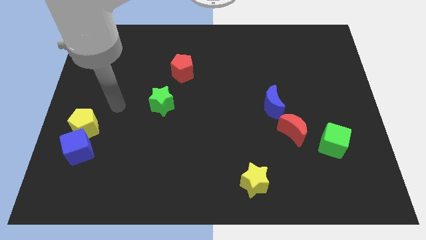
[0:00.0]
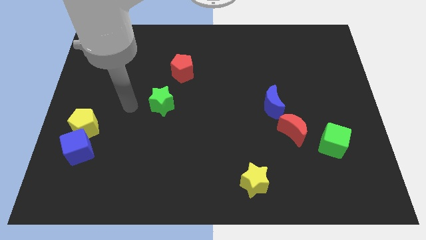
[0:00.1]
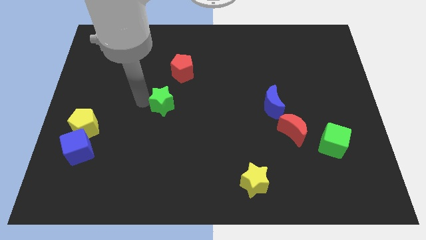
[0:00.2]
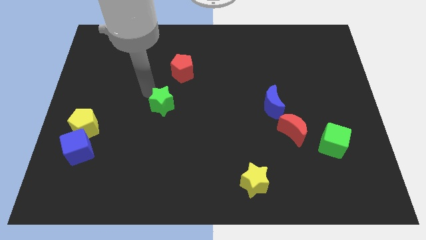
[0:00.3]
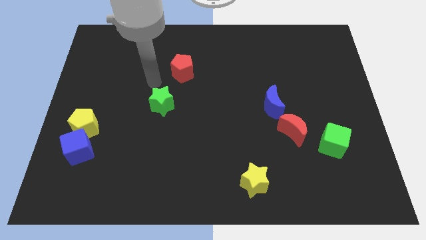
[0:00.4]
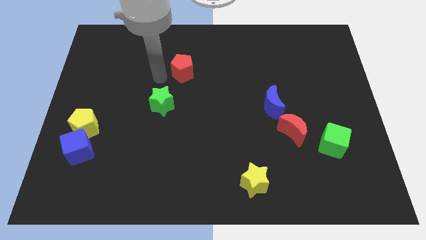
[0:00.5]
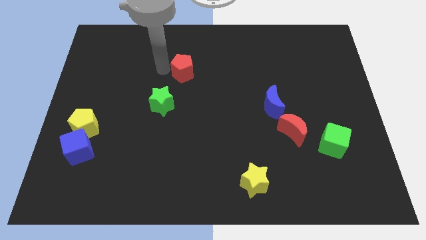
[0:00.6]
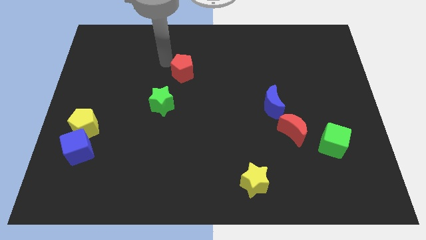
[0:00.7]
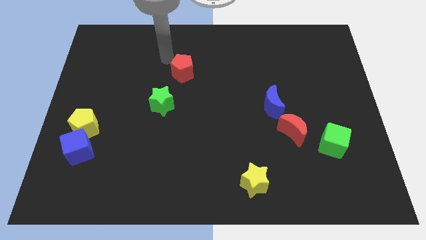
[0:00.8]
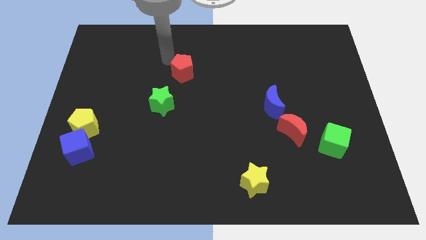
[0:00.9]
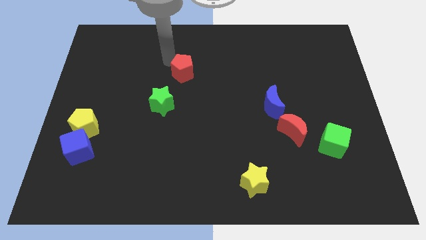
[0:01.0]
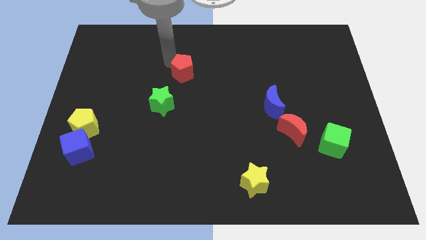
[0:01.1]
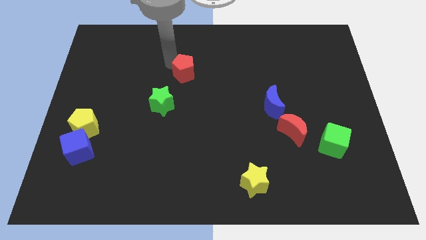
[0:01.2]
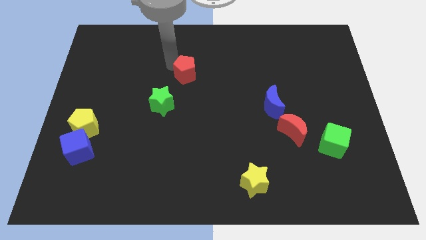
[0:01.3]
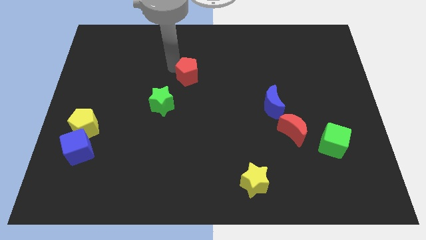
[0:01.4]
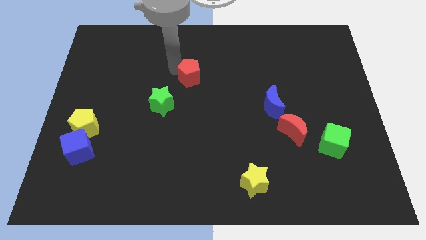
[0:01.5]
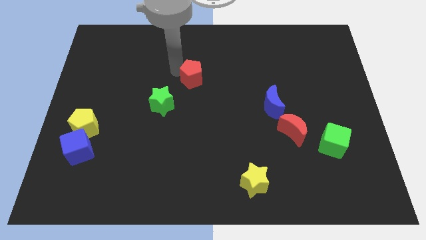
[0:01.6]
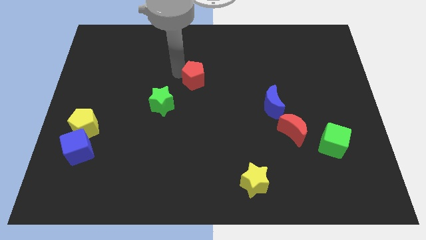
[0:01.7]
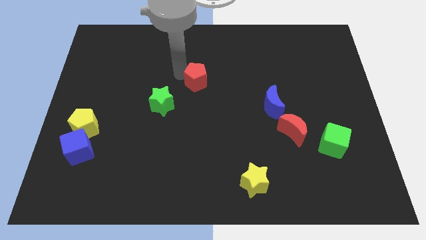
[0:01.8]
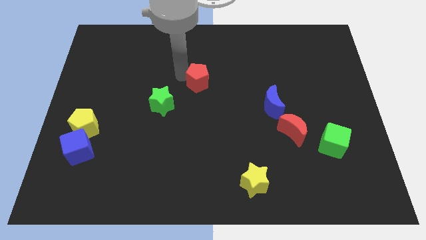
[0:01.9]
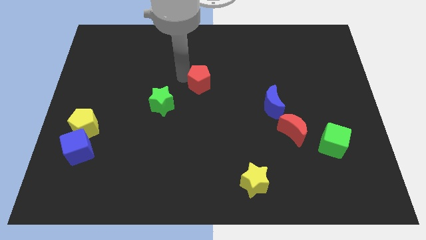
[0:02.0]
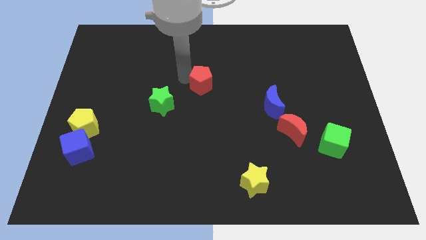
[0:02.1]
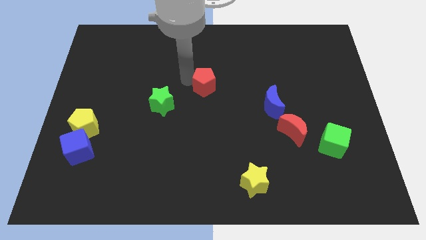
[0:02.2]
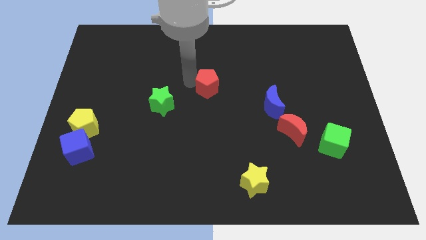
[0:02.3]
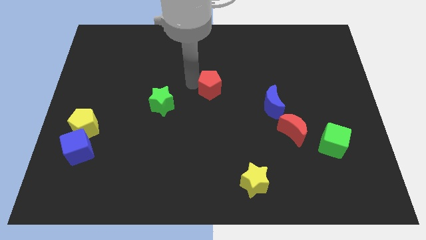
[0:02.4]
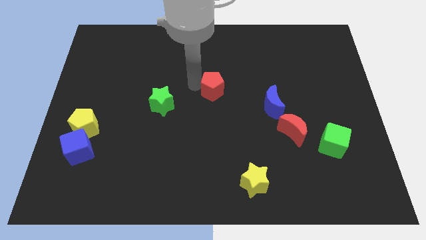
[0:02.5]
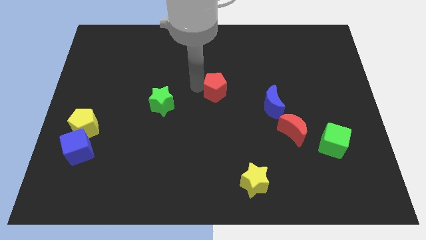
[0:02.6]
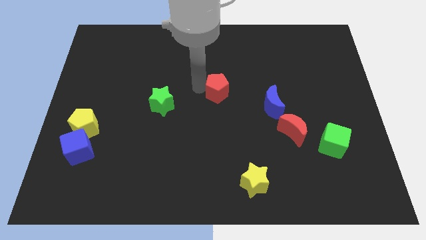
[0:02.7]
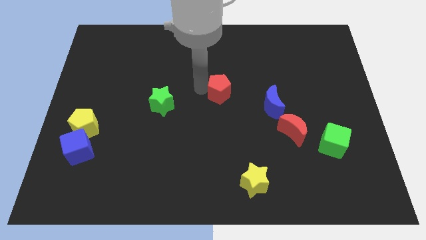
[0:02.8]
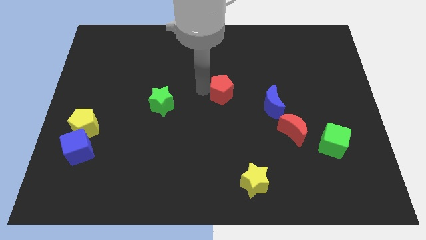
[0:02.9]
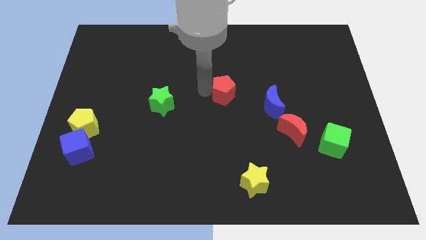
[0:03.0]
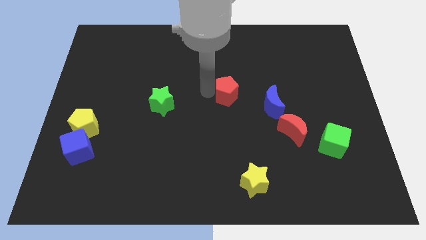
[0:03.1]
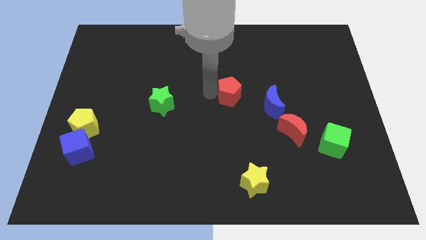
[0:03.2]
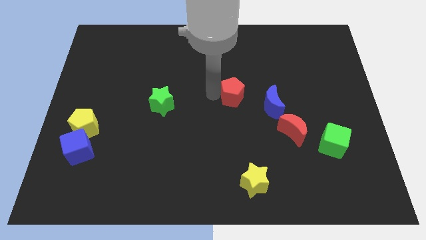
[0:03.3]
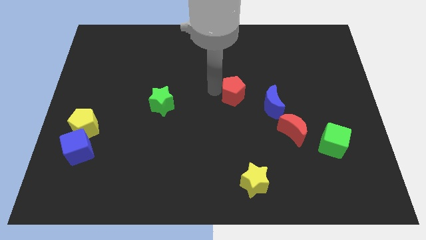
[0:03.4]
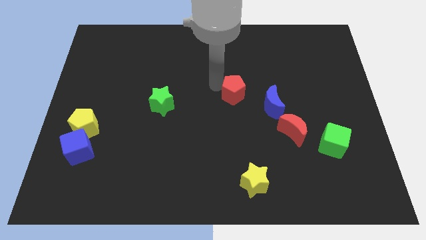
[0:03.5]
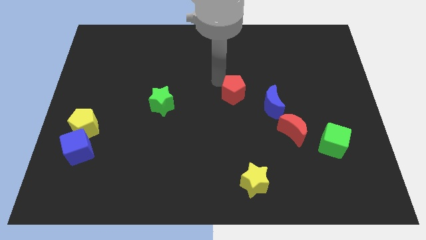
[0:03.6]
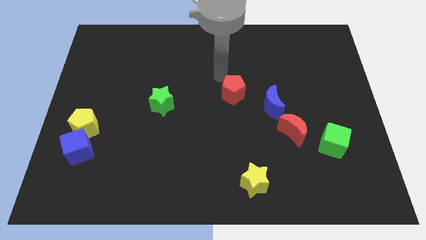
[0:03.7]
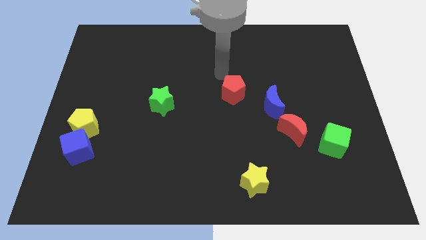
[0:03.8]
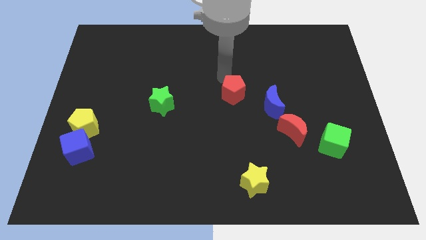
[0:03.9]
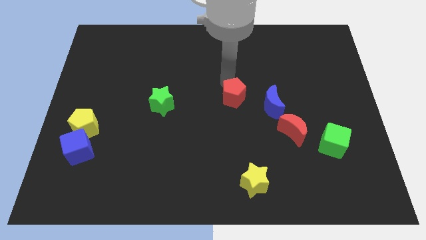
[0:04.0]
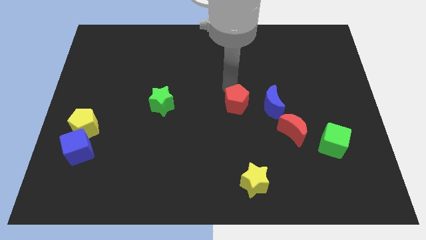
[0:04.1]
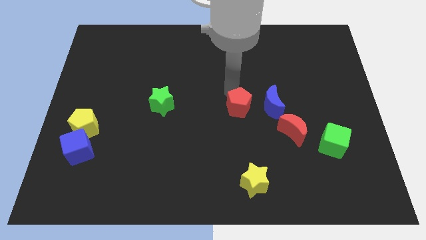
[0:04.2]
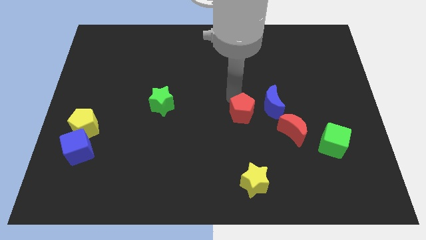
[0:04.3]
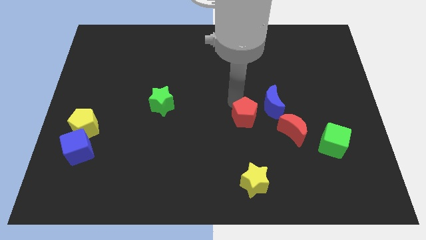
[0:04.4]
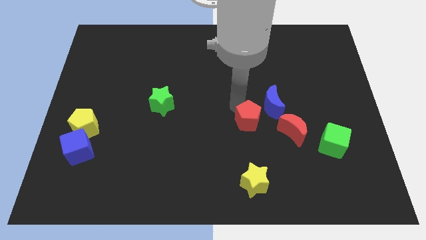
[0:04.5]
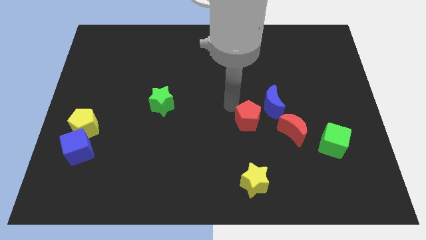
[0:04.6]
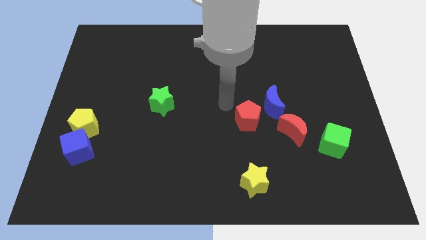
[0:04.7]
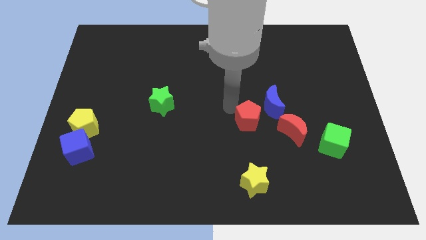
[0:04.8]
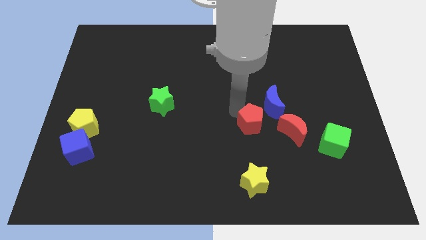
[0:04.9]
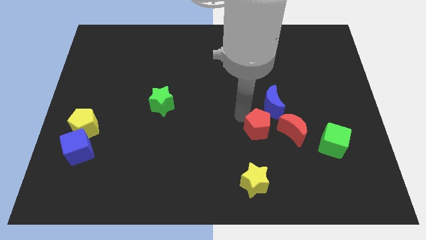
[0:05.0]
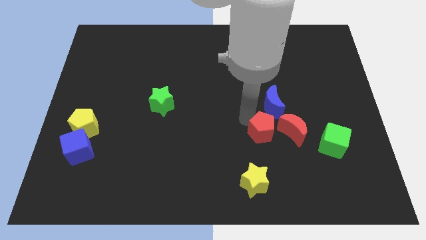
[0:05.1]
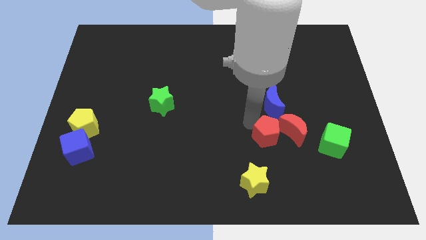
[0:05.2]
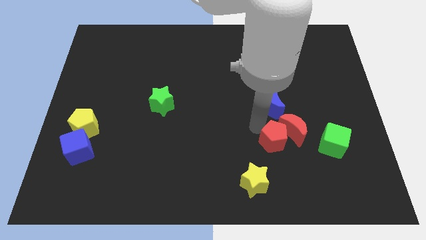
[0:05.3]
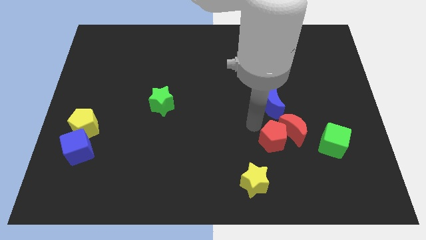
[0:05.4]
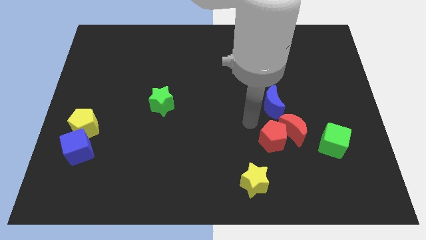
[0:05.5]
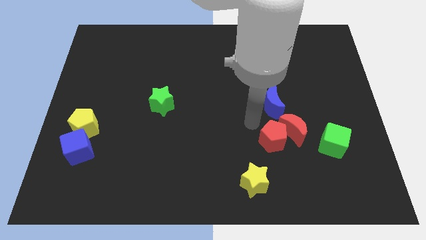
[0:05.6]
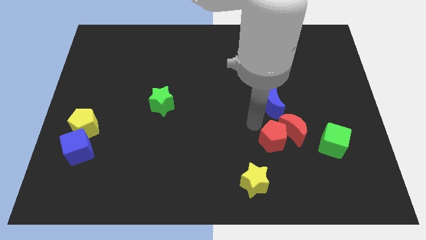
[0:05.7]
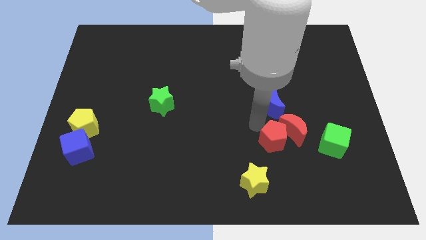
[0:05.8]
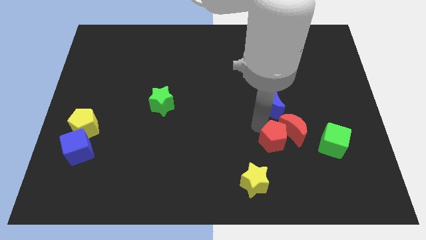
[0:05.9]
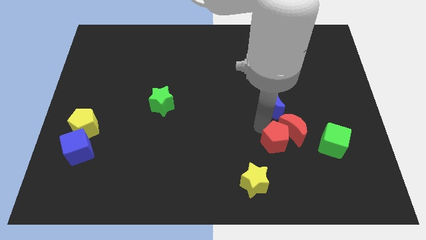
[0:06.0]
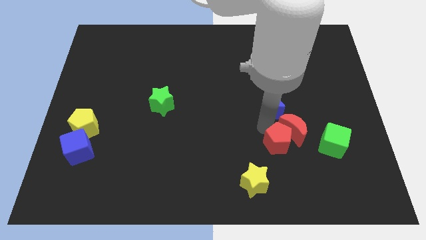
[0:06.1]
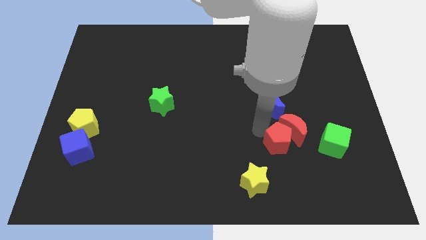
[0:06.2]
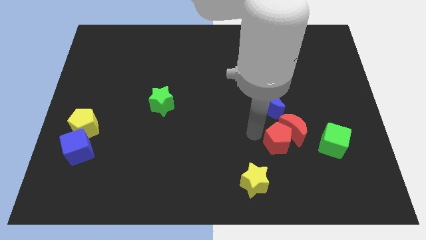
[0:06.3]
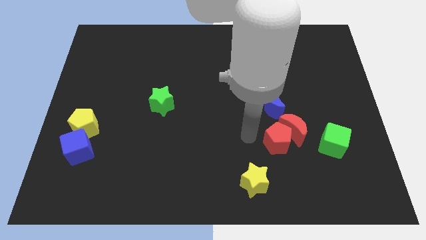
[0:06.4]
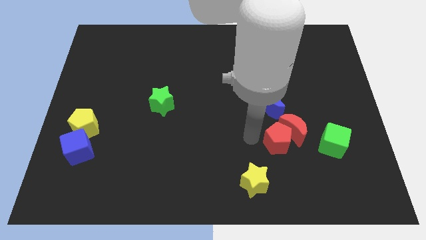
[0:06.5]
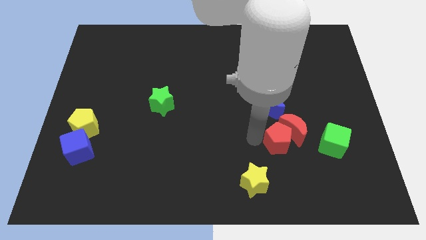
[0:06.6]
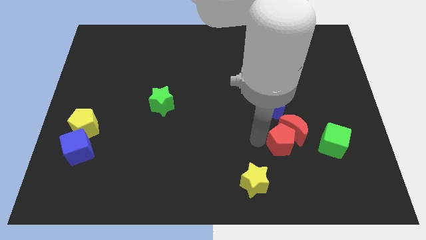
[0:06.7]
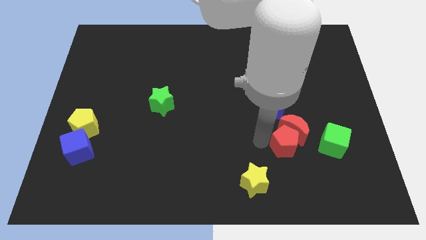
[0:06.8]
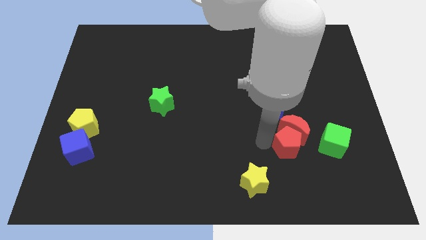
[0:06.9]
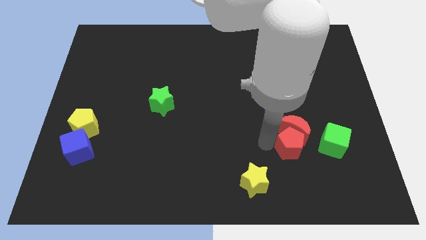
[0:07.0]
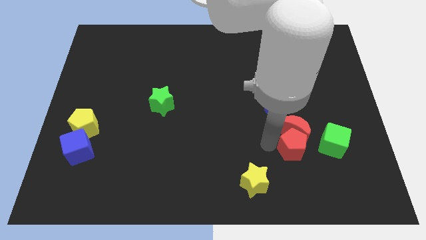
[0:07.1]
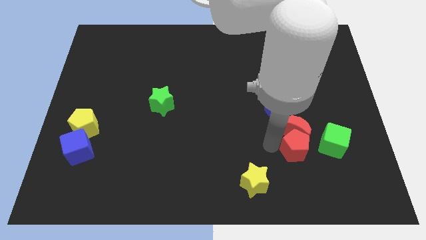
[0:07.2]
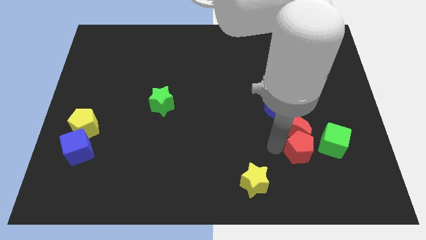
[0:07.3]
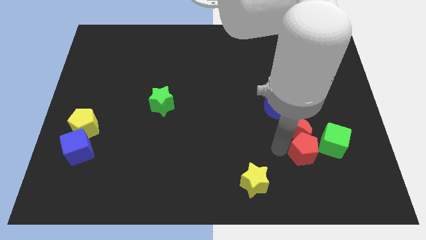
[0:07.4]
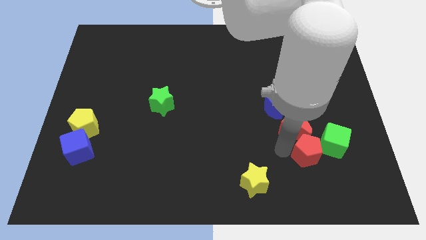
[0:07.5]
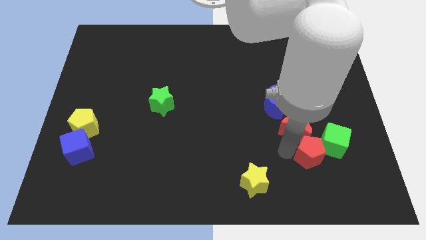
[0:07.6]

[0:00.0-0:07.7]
move the red pentagon to the green cube
